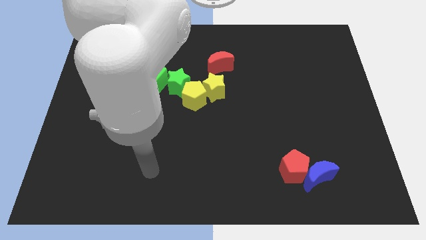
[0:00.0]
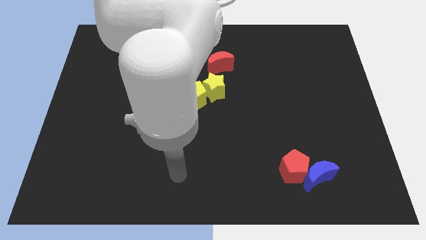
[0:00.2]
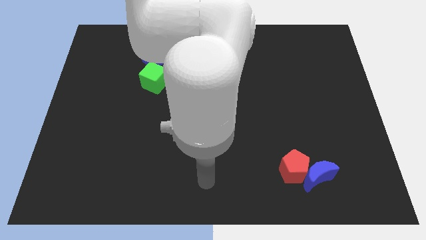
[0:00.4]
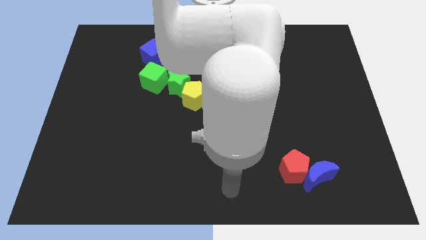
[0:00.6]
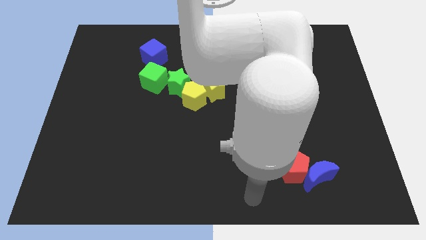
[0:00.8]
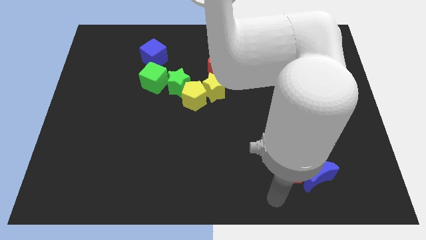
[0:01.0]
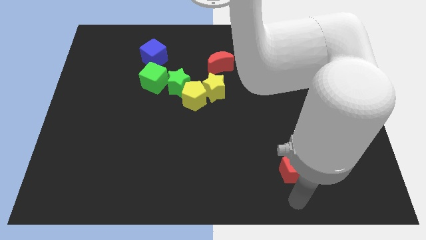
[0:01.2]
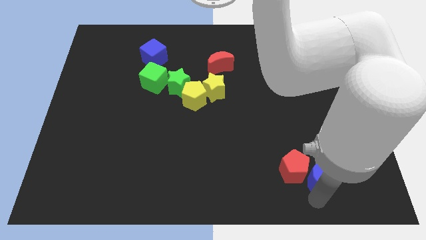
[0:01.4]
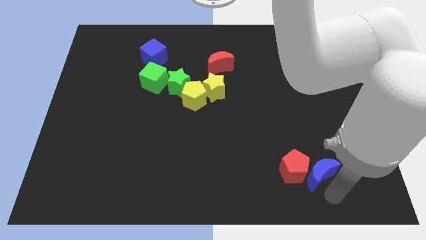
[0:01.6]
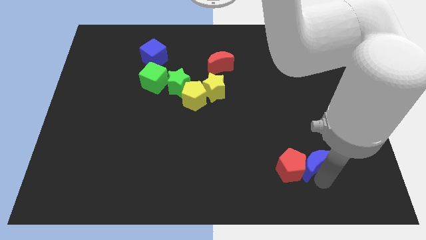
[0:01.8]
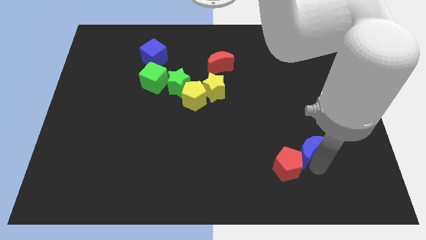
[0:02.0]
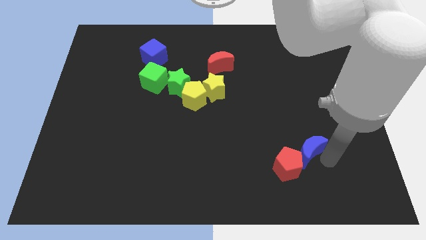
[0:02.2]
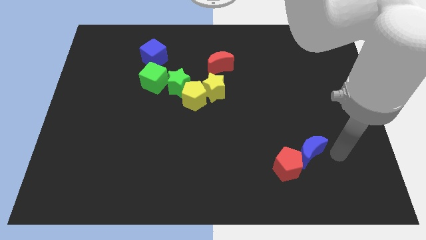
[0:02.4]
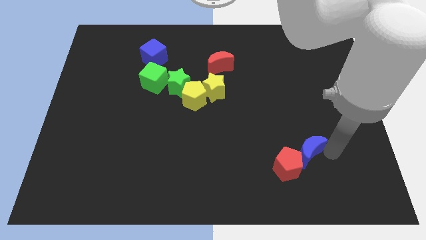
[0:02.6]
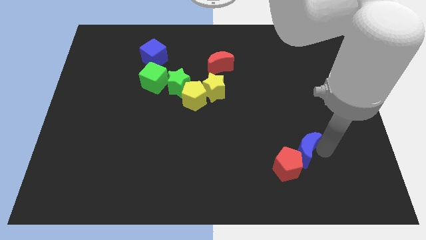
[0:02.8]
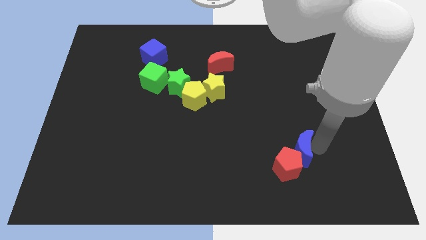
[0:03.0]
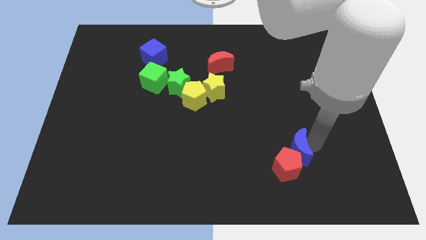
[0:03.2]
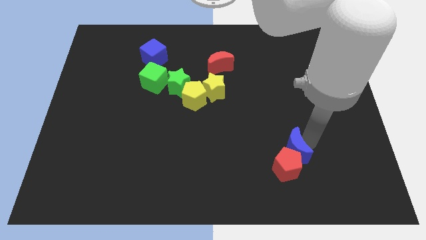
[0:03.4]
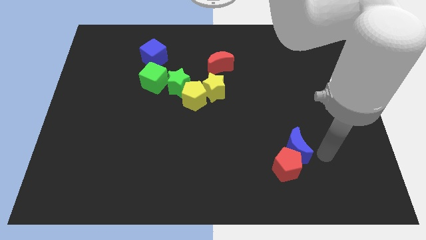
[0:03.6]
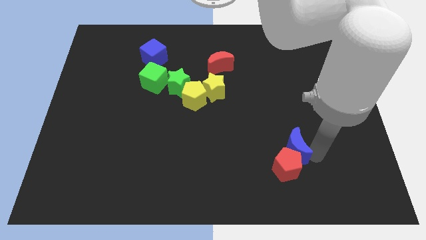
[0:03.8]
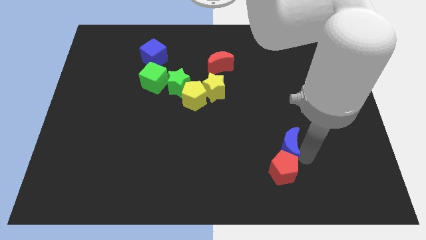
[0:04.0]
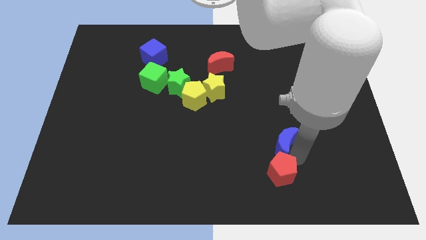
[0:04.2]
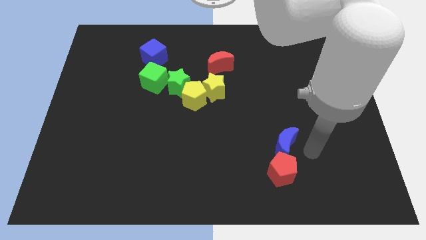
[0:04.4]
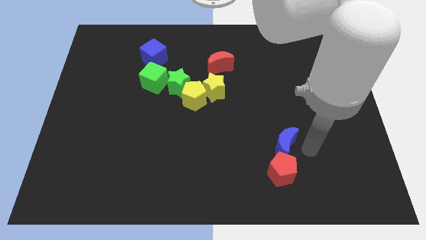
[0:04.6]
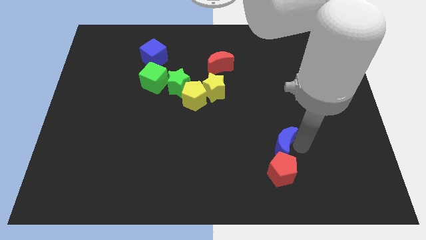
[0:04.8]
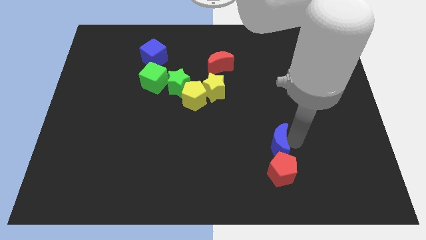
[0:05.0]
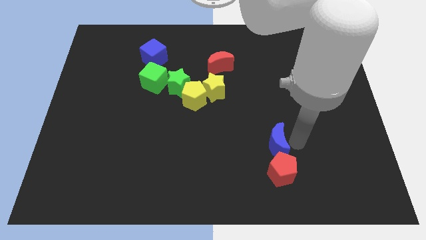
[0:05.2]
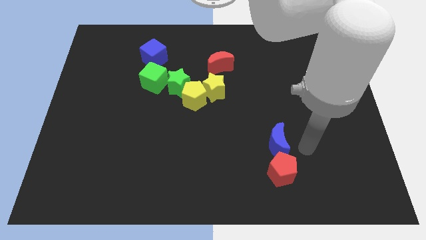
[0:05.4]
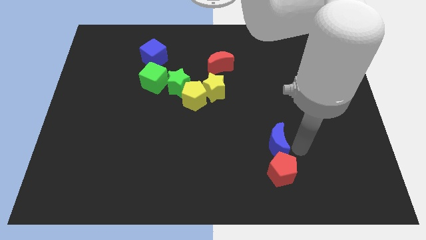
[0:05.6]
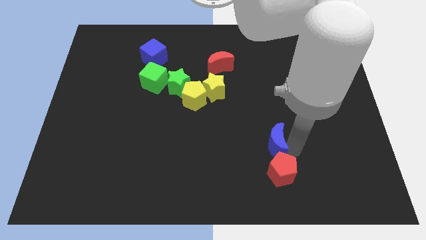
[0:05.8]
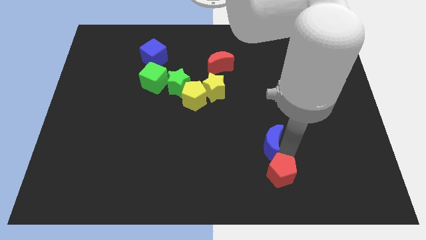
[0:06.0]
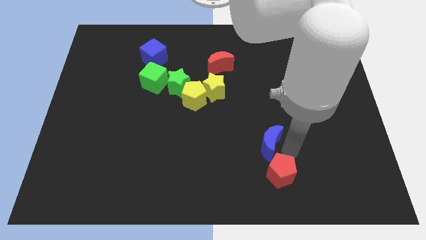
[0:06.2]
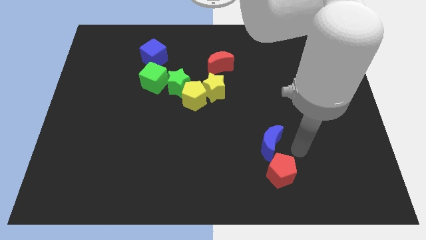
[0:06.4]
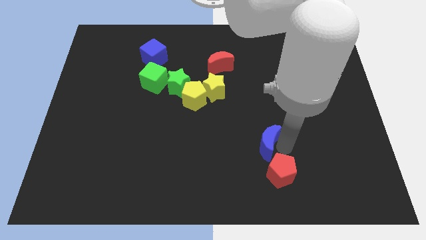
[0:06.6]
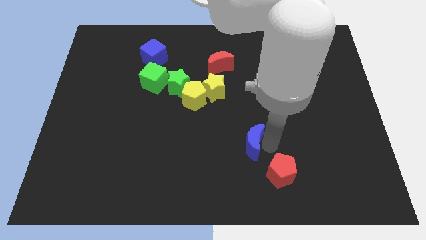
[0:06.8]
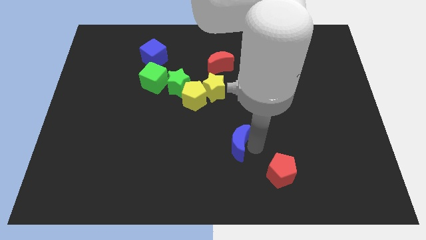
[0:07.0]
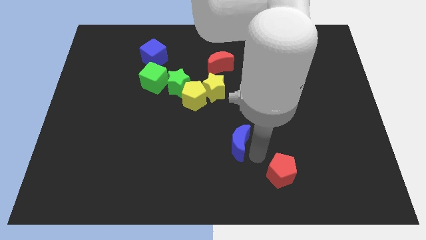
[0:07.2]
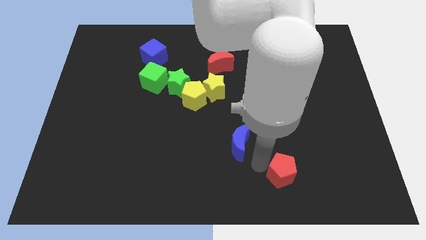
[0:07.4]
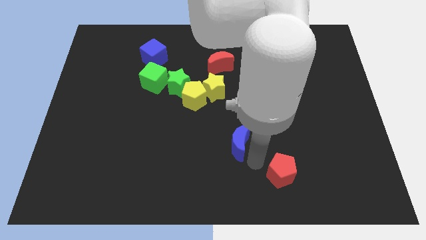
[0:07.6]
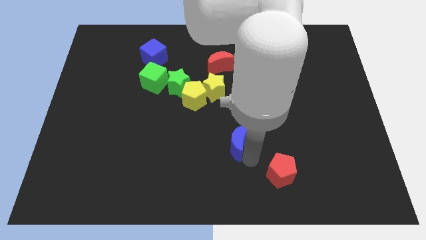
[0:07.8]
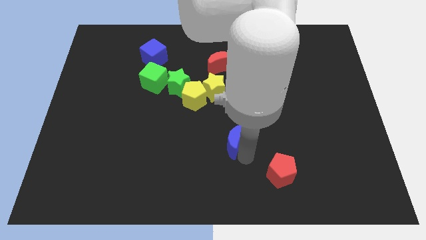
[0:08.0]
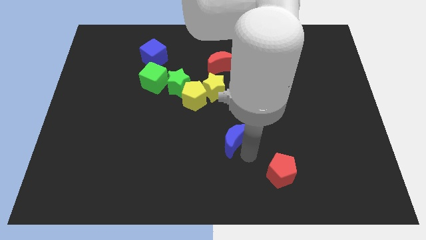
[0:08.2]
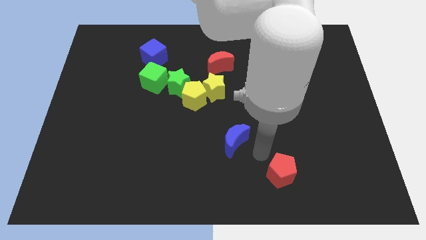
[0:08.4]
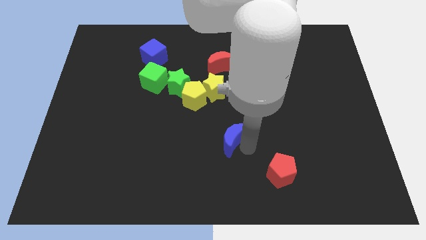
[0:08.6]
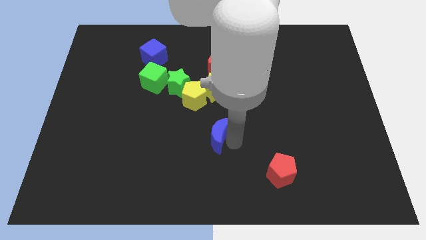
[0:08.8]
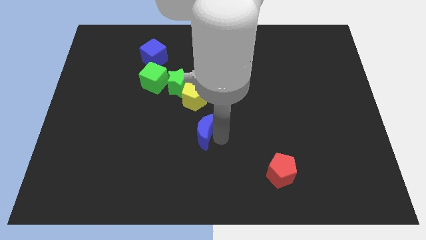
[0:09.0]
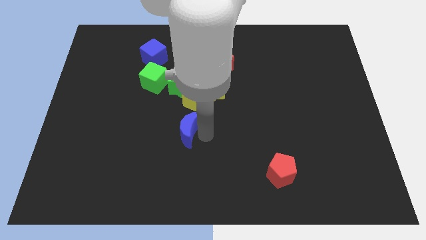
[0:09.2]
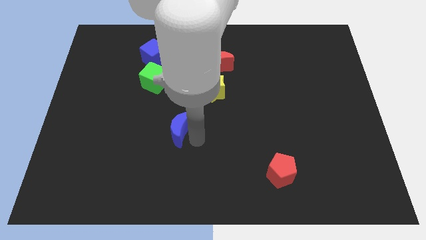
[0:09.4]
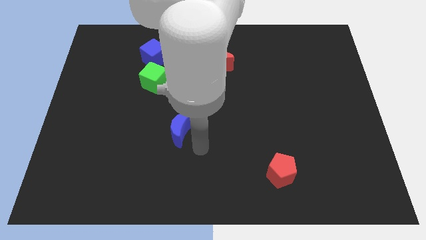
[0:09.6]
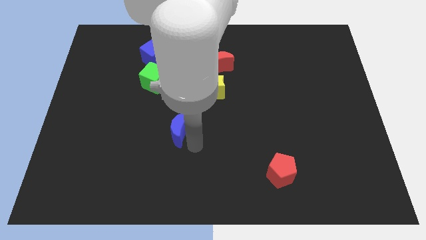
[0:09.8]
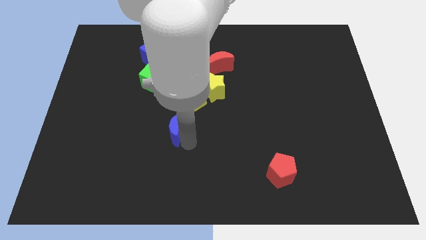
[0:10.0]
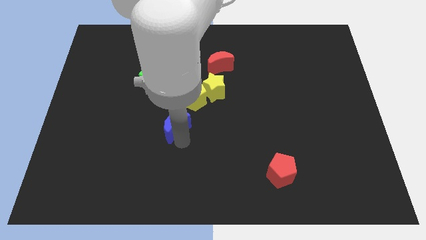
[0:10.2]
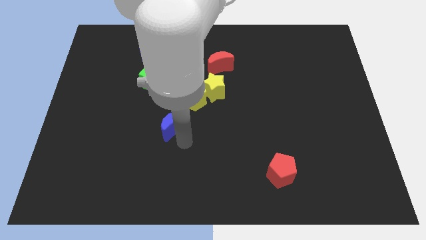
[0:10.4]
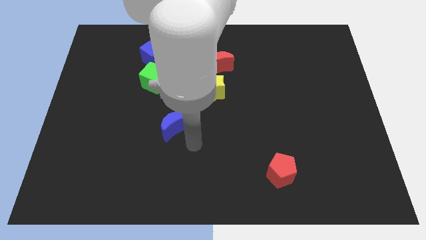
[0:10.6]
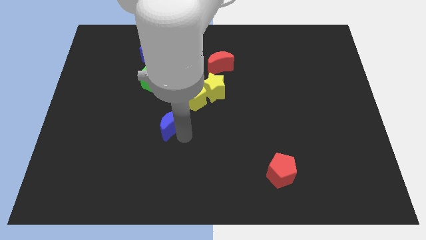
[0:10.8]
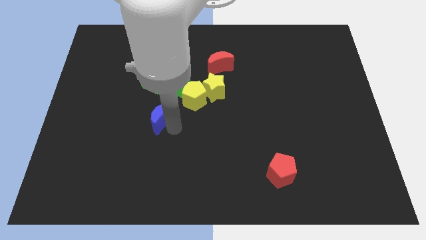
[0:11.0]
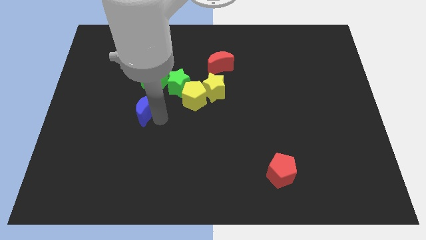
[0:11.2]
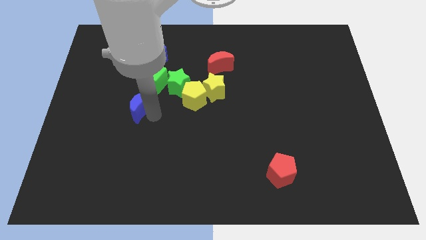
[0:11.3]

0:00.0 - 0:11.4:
move the blue moon to the bottom left of the green cube

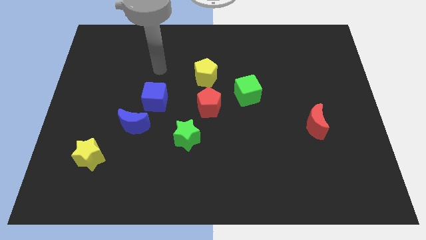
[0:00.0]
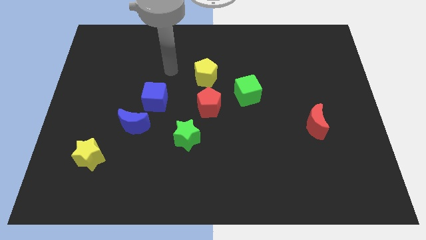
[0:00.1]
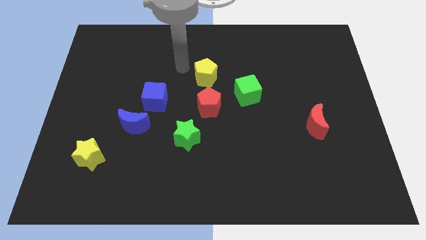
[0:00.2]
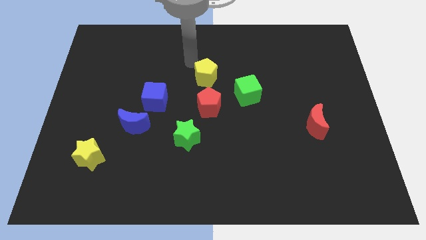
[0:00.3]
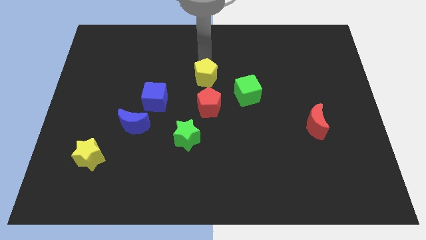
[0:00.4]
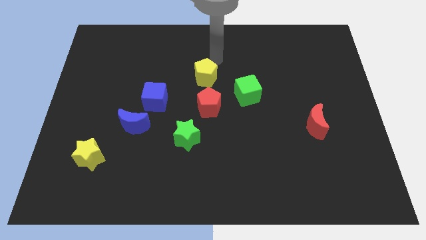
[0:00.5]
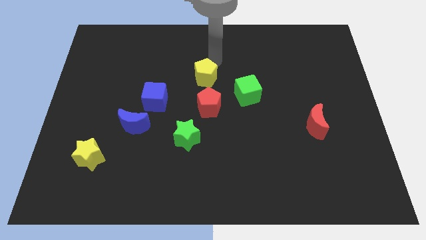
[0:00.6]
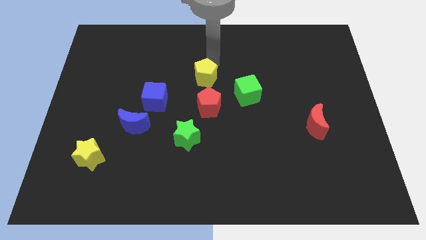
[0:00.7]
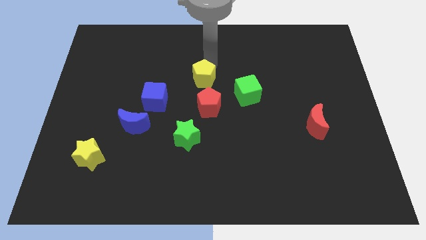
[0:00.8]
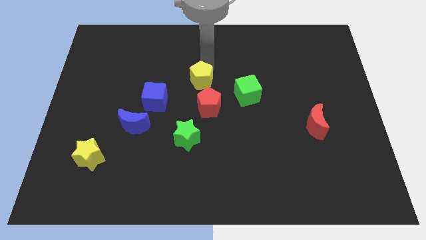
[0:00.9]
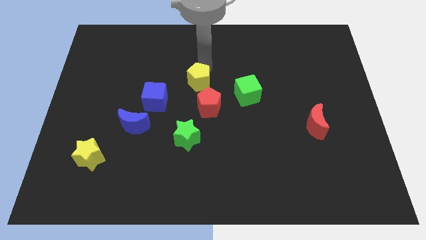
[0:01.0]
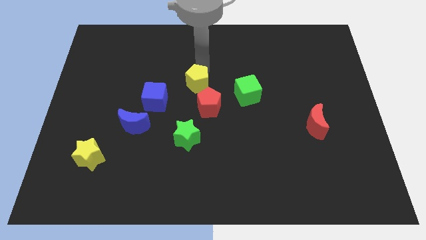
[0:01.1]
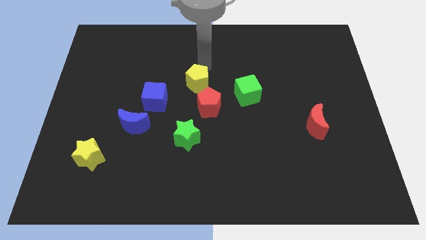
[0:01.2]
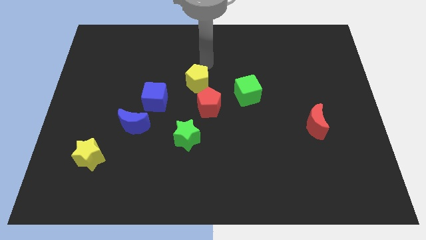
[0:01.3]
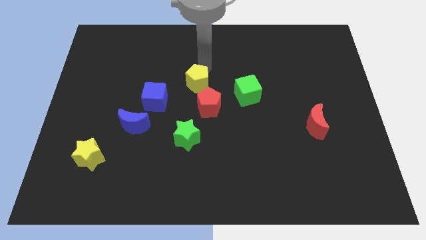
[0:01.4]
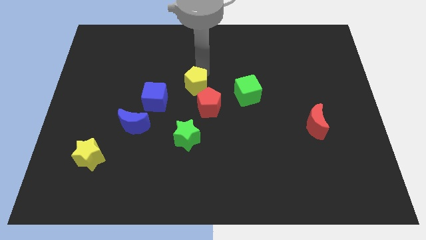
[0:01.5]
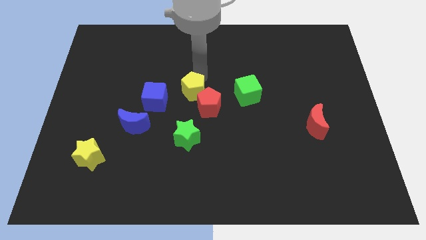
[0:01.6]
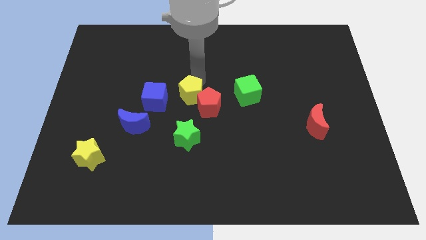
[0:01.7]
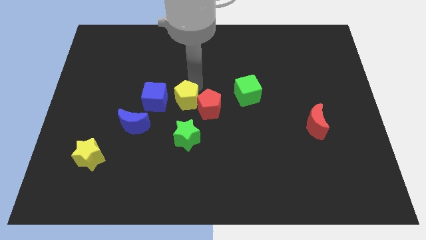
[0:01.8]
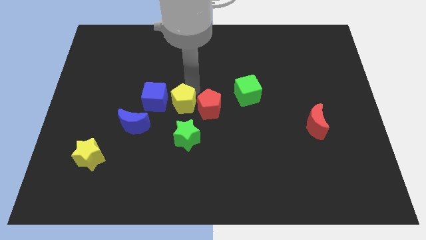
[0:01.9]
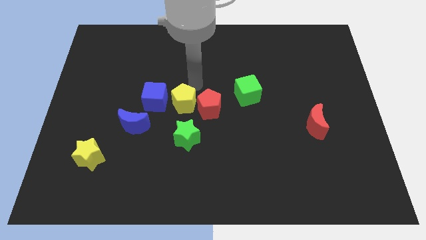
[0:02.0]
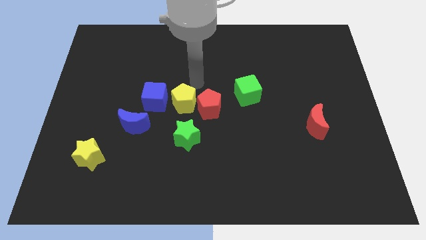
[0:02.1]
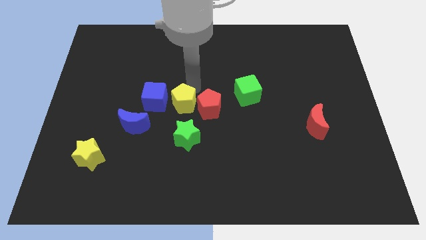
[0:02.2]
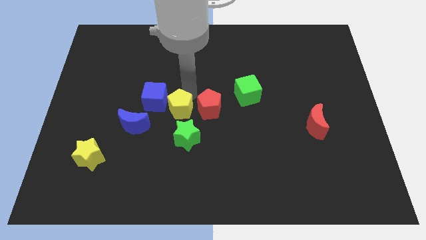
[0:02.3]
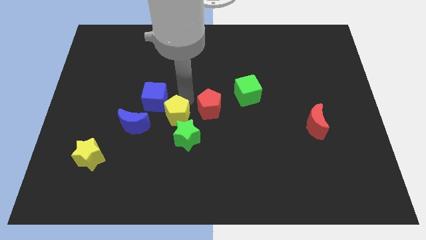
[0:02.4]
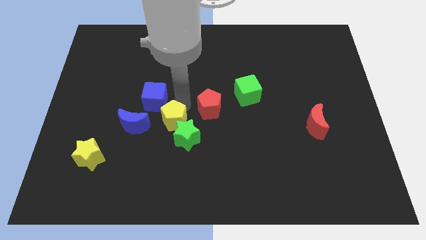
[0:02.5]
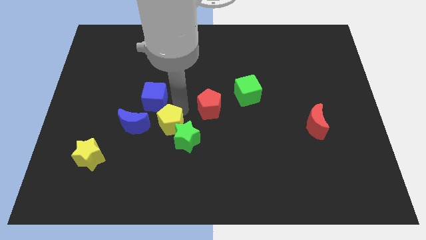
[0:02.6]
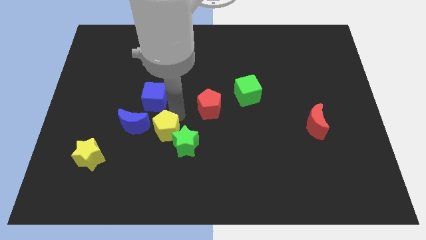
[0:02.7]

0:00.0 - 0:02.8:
move the yellow pentagon to the bottom right of the blue moon
